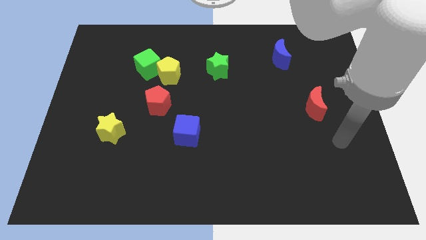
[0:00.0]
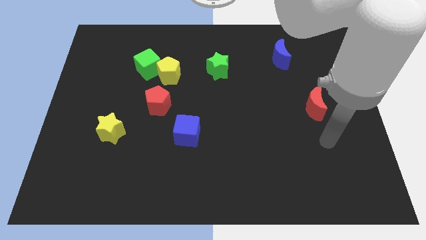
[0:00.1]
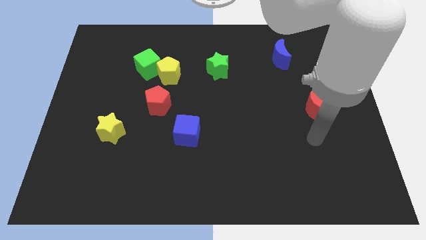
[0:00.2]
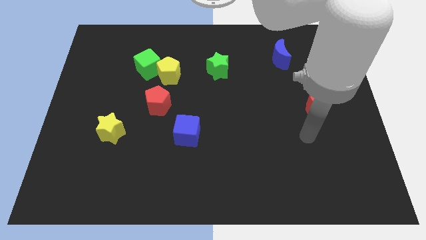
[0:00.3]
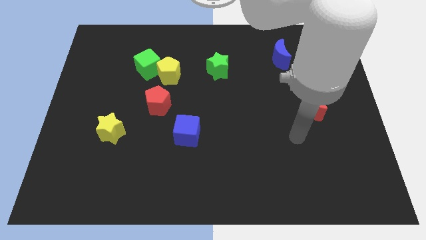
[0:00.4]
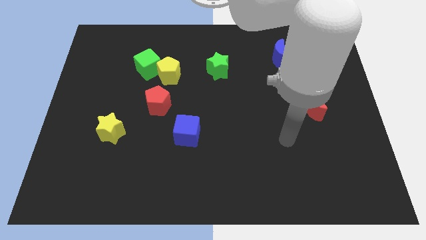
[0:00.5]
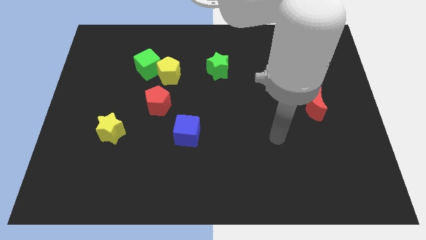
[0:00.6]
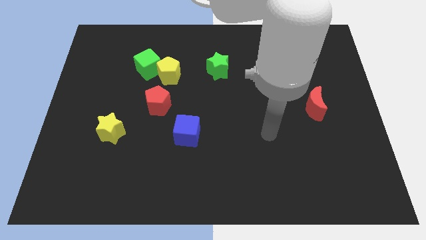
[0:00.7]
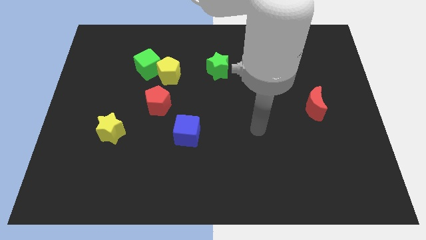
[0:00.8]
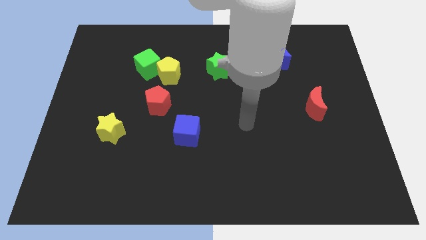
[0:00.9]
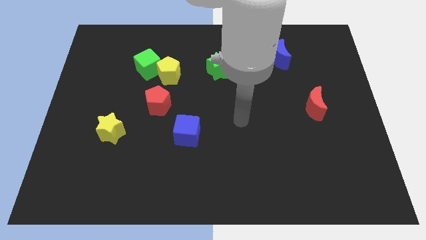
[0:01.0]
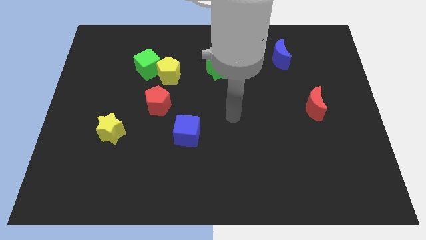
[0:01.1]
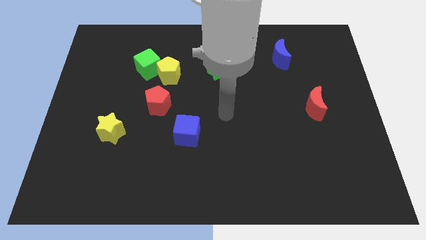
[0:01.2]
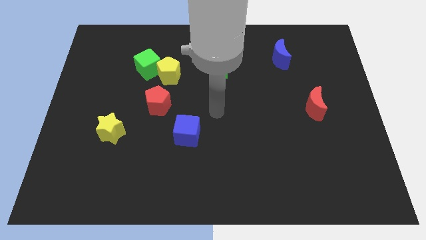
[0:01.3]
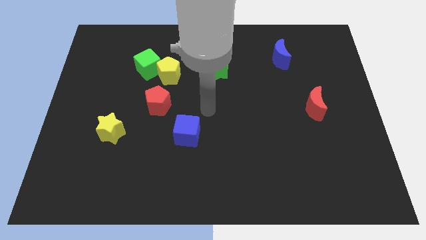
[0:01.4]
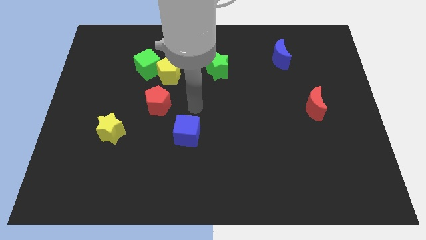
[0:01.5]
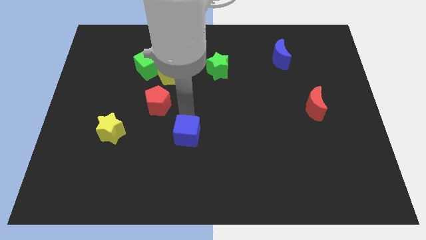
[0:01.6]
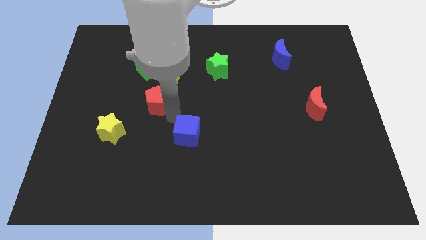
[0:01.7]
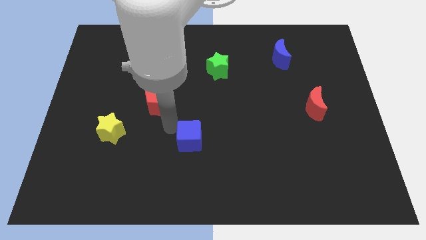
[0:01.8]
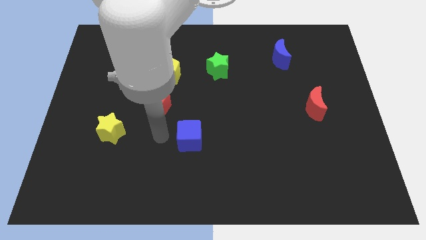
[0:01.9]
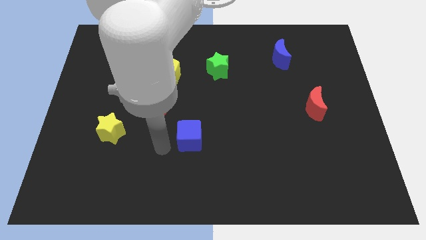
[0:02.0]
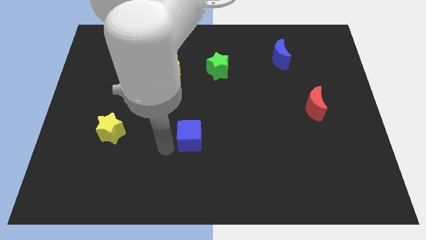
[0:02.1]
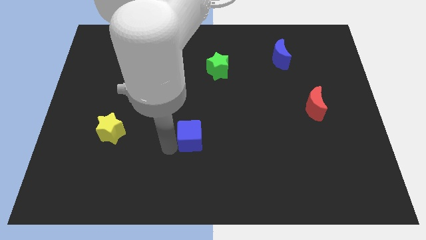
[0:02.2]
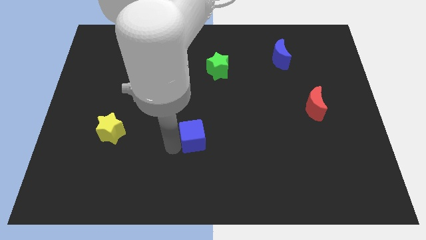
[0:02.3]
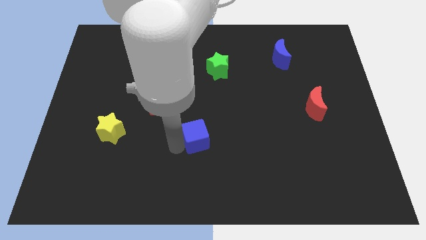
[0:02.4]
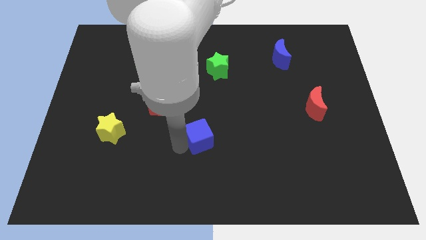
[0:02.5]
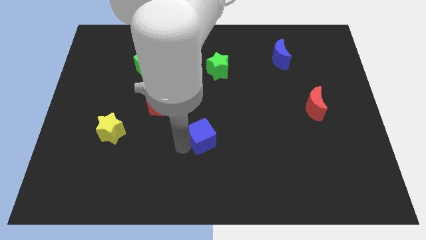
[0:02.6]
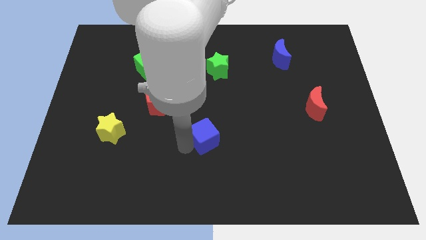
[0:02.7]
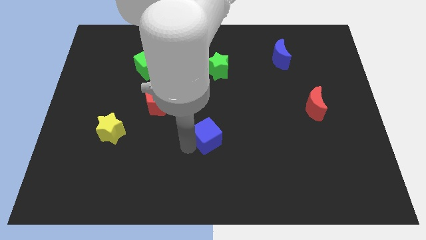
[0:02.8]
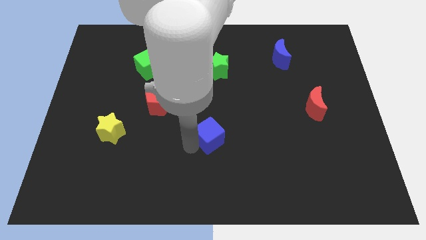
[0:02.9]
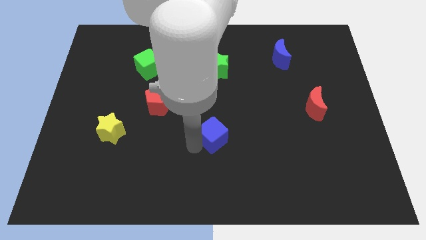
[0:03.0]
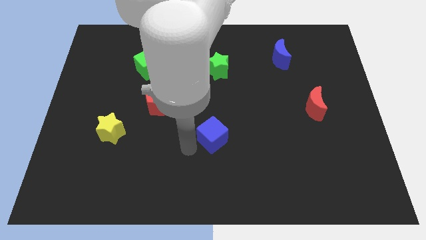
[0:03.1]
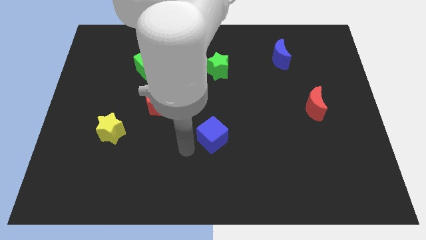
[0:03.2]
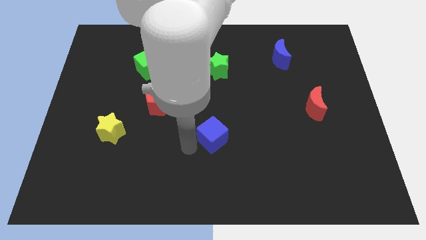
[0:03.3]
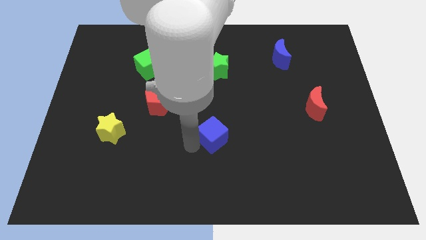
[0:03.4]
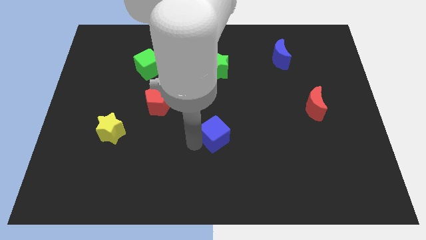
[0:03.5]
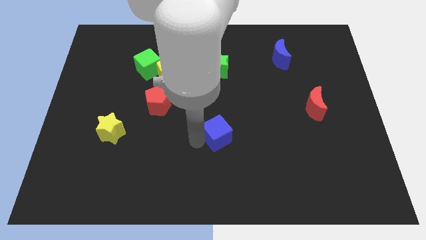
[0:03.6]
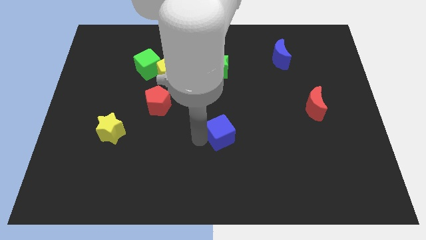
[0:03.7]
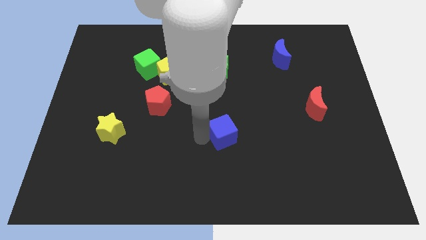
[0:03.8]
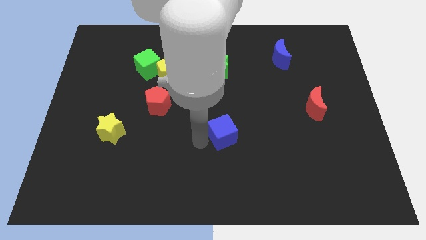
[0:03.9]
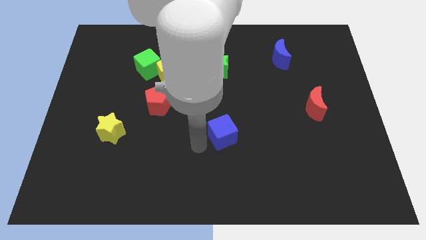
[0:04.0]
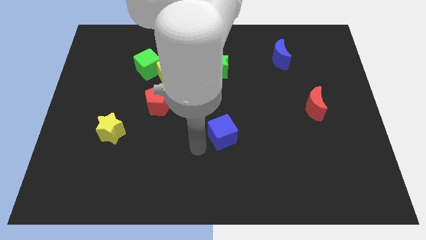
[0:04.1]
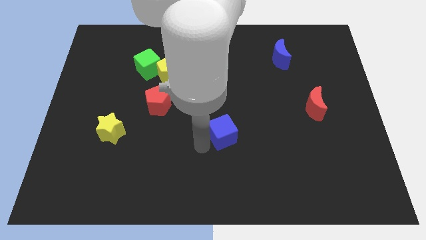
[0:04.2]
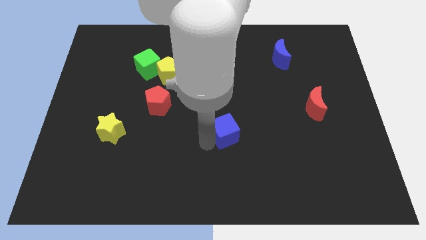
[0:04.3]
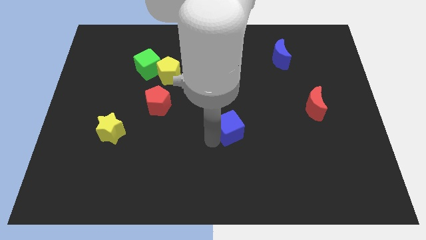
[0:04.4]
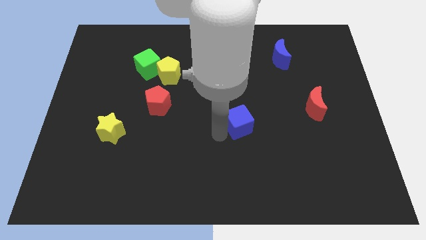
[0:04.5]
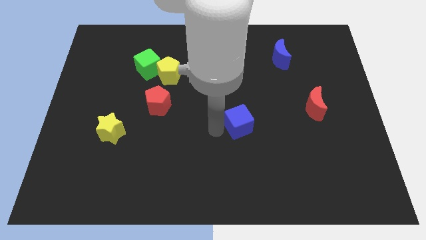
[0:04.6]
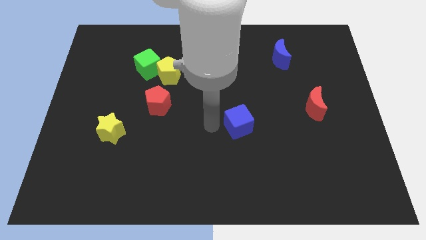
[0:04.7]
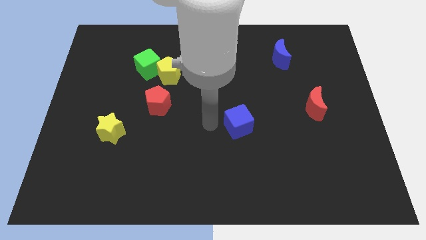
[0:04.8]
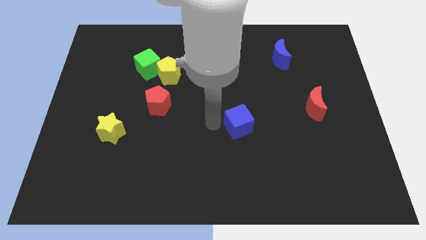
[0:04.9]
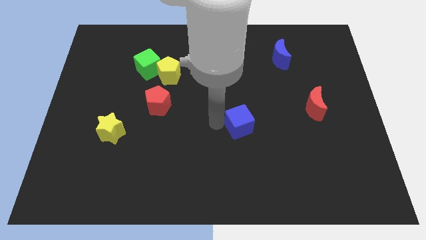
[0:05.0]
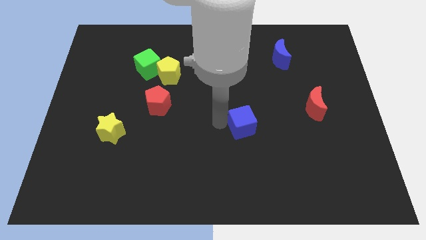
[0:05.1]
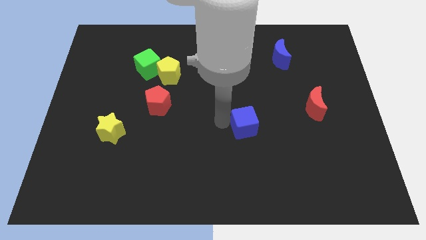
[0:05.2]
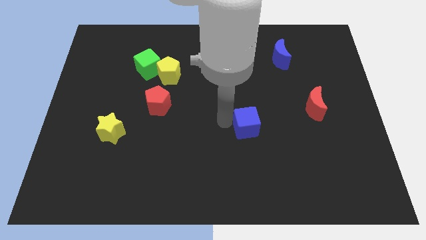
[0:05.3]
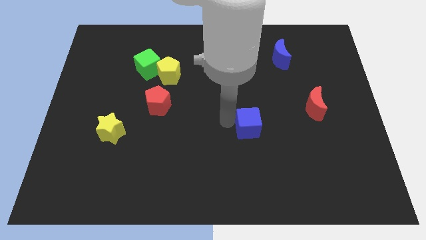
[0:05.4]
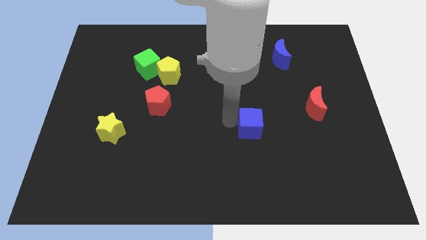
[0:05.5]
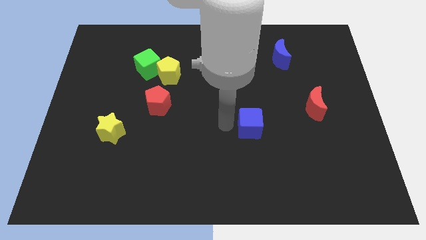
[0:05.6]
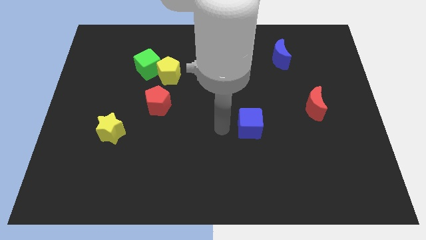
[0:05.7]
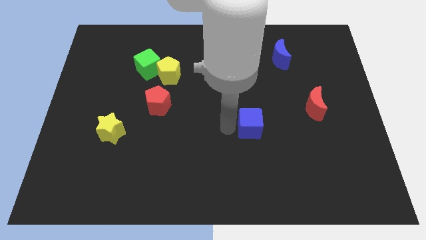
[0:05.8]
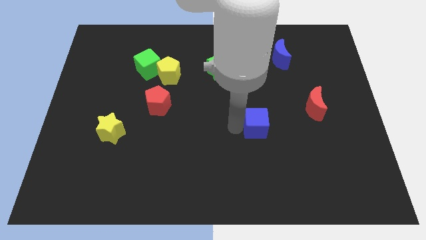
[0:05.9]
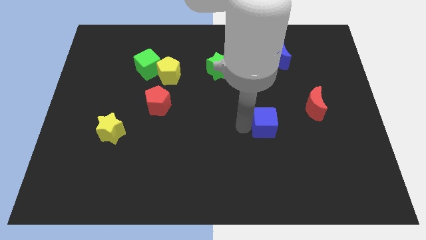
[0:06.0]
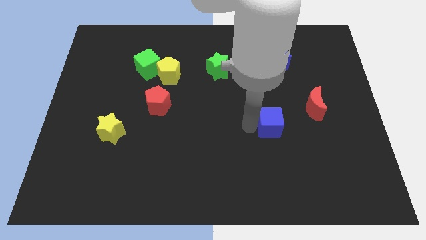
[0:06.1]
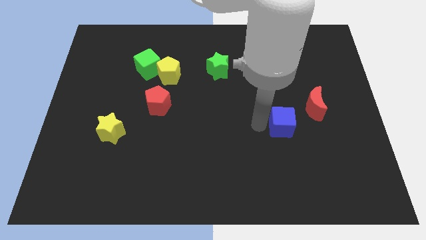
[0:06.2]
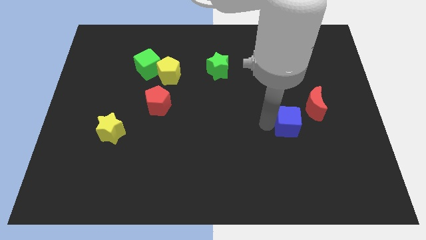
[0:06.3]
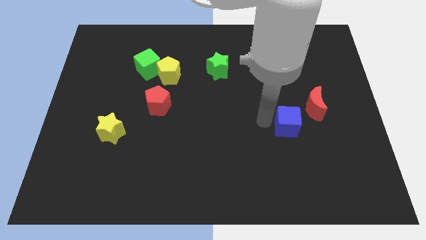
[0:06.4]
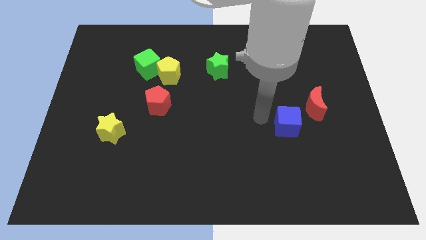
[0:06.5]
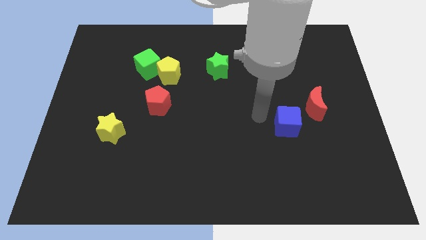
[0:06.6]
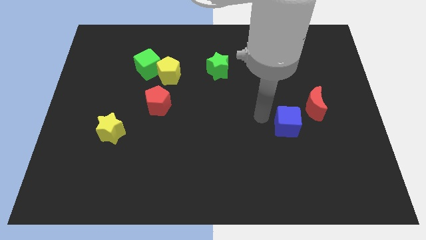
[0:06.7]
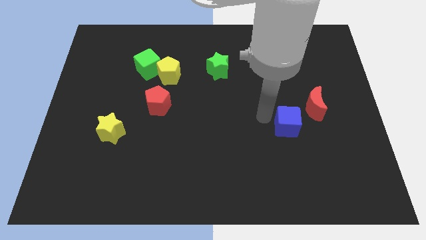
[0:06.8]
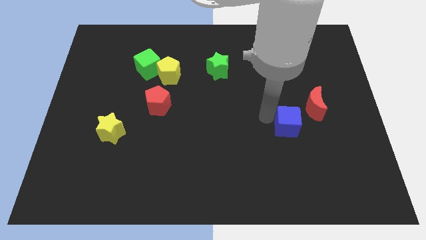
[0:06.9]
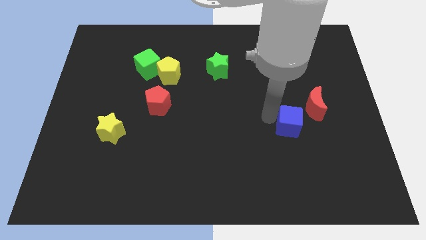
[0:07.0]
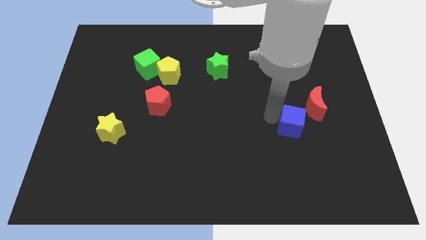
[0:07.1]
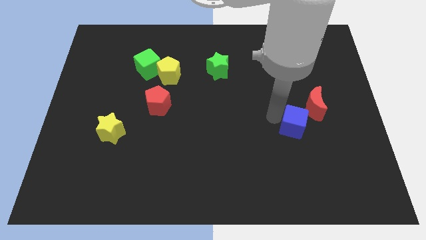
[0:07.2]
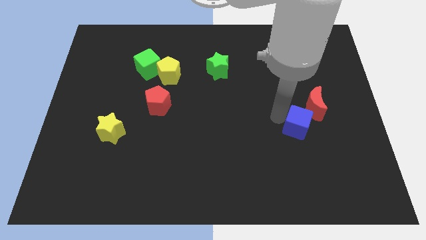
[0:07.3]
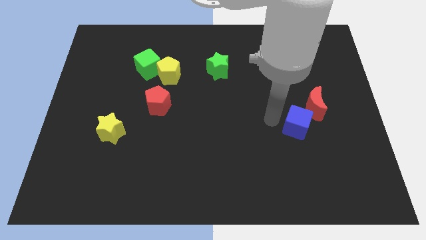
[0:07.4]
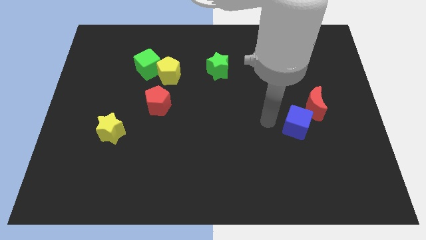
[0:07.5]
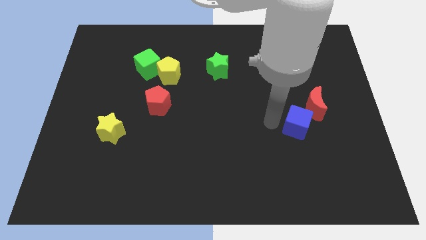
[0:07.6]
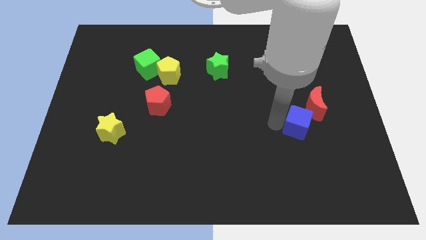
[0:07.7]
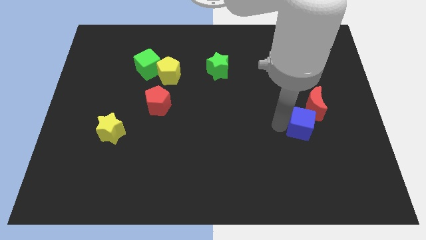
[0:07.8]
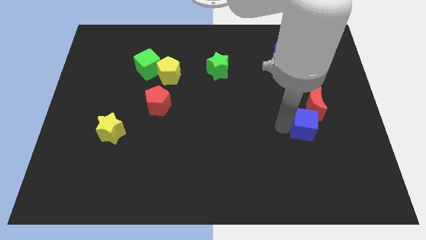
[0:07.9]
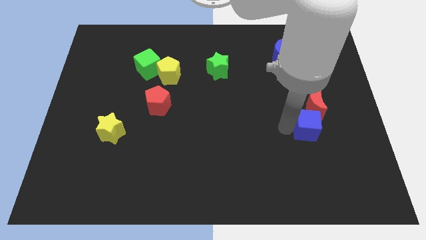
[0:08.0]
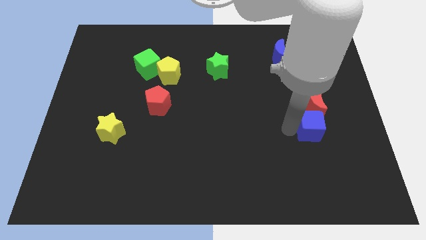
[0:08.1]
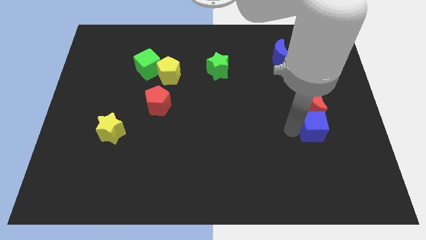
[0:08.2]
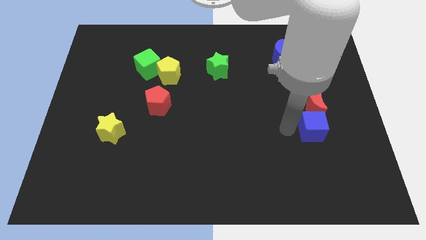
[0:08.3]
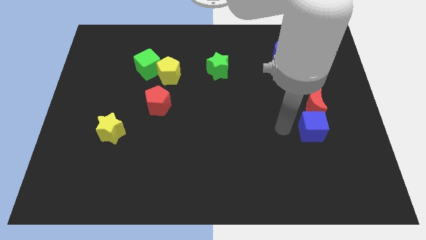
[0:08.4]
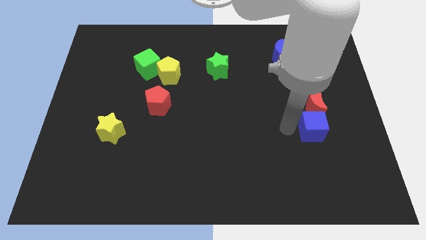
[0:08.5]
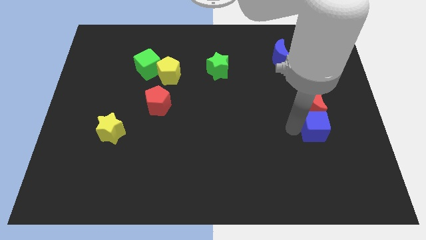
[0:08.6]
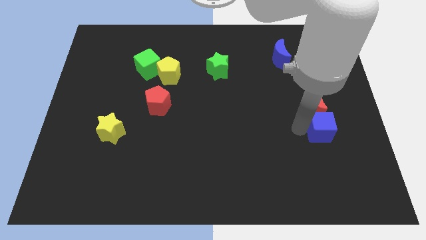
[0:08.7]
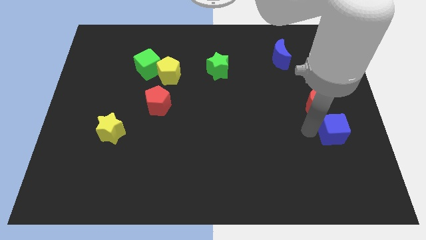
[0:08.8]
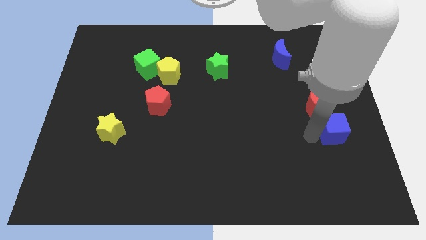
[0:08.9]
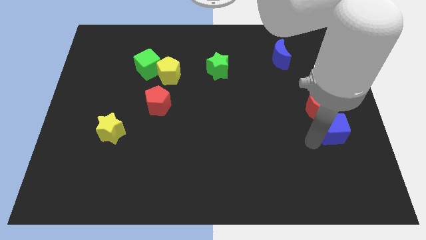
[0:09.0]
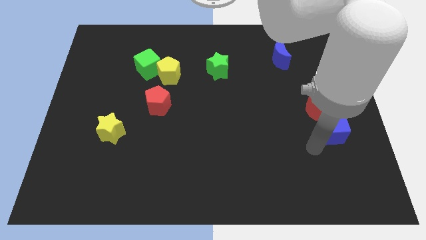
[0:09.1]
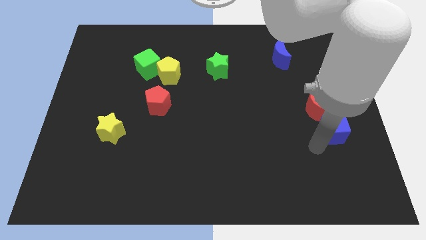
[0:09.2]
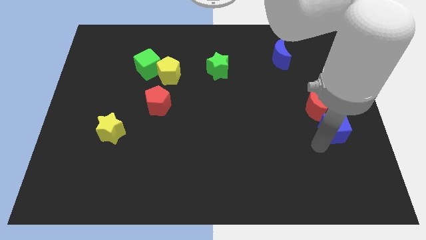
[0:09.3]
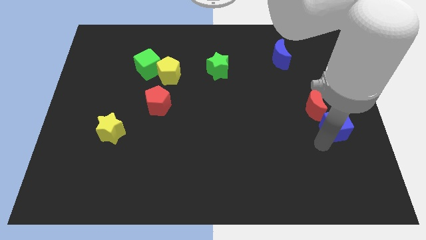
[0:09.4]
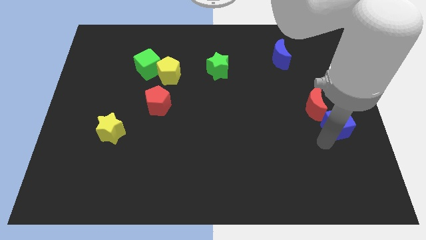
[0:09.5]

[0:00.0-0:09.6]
slide the blue cube to the right side
